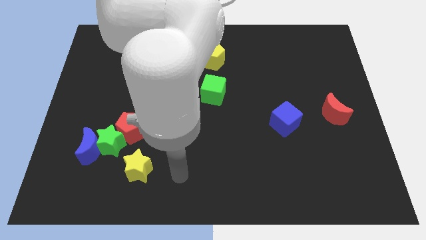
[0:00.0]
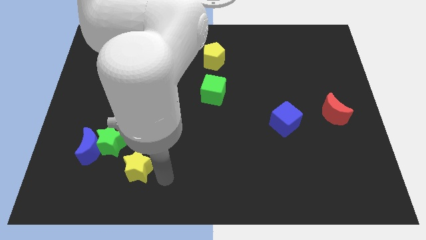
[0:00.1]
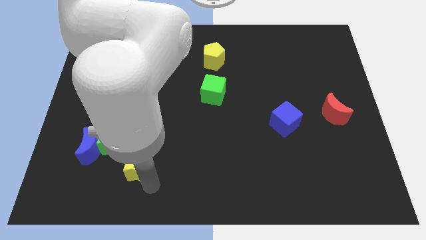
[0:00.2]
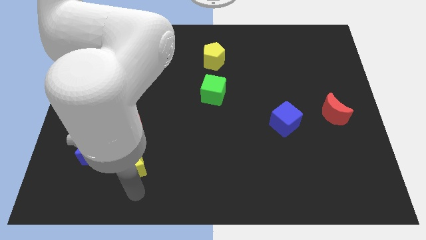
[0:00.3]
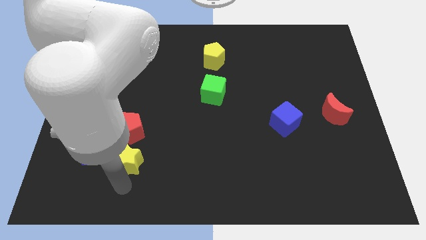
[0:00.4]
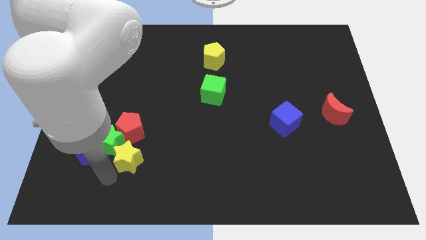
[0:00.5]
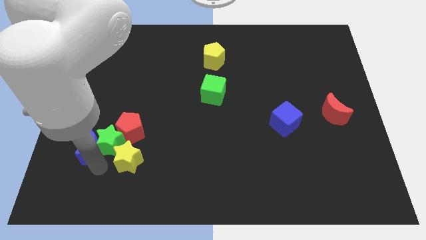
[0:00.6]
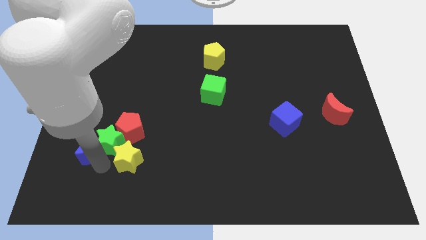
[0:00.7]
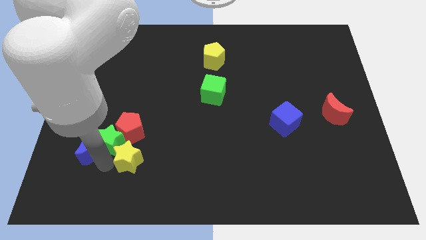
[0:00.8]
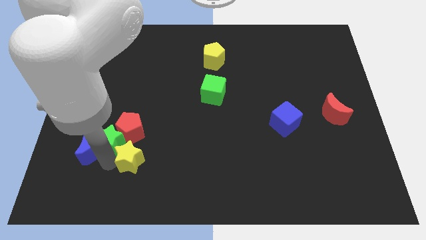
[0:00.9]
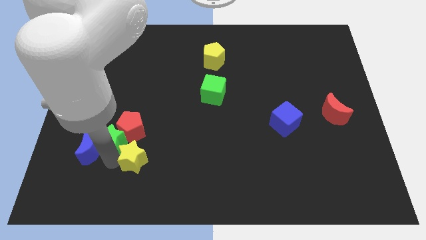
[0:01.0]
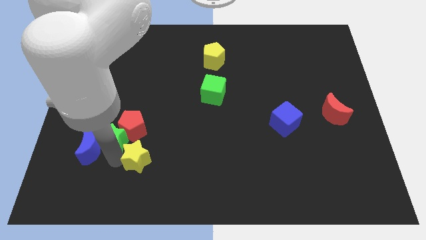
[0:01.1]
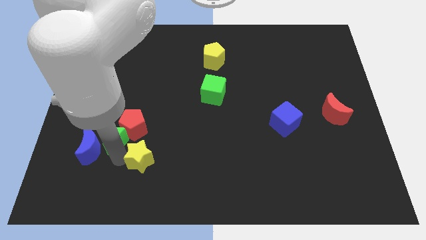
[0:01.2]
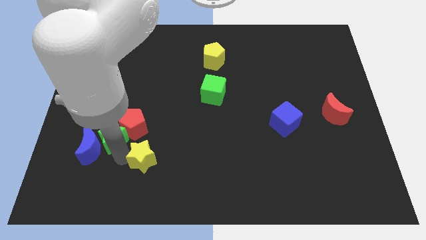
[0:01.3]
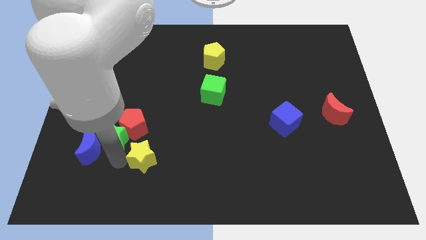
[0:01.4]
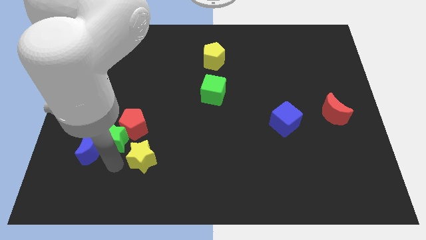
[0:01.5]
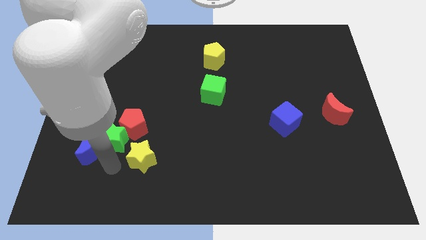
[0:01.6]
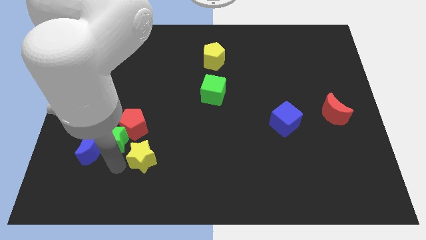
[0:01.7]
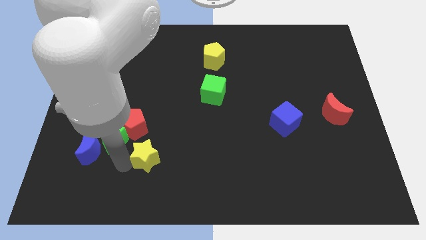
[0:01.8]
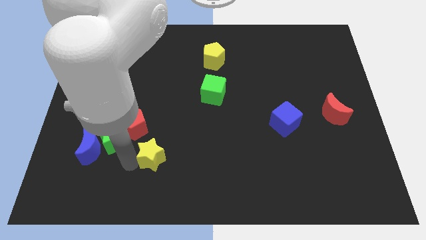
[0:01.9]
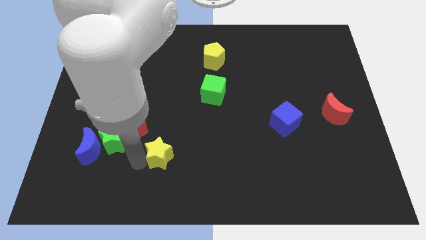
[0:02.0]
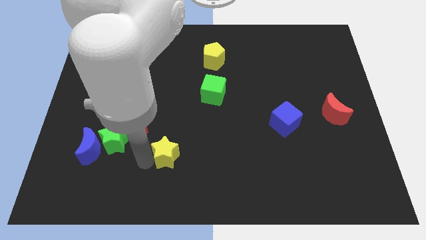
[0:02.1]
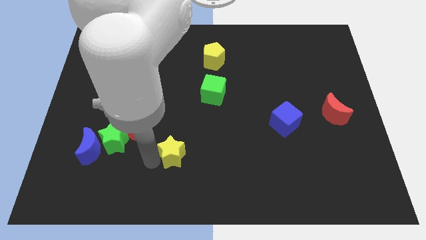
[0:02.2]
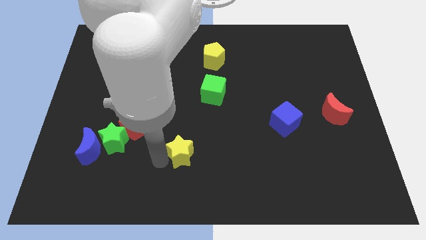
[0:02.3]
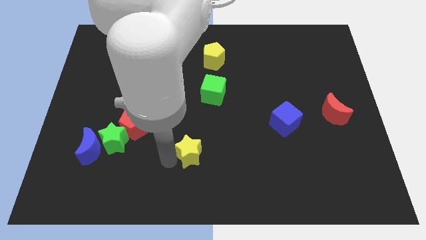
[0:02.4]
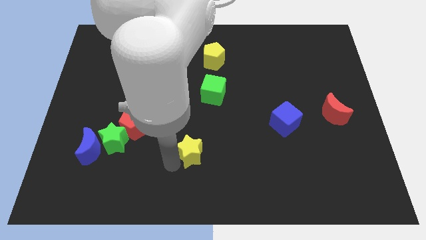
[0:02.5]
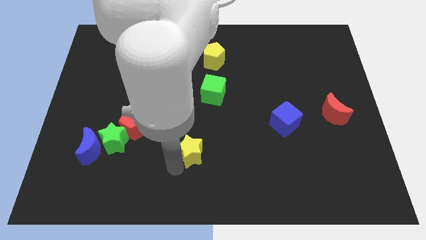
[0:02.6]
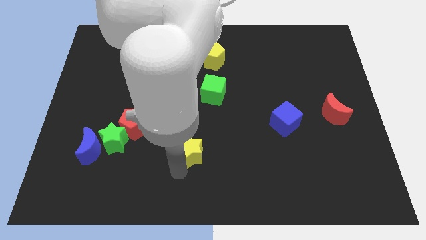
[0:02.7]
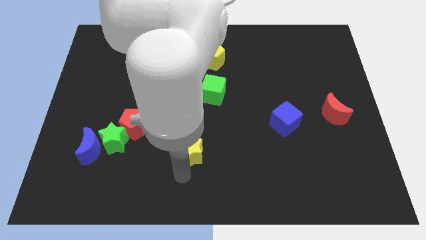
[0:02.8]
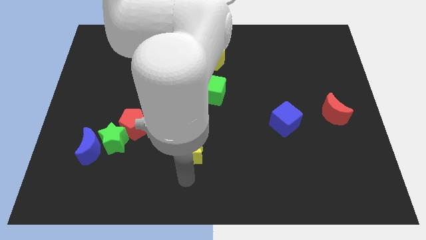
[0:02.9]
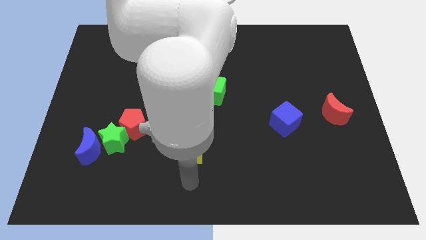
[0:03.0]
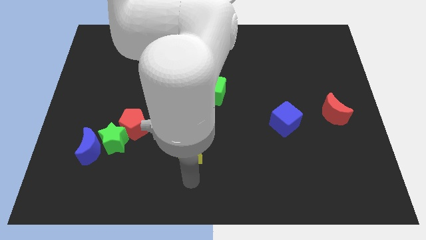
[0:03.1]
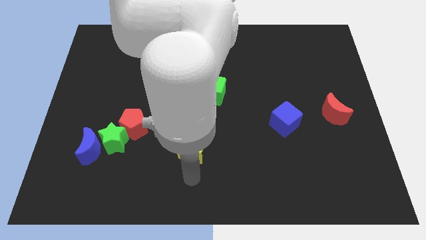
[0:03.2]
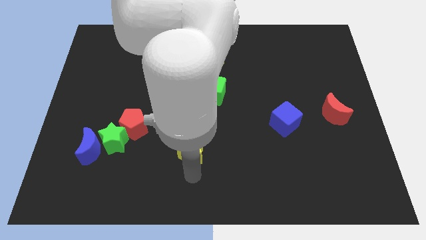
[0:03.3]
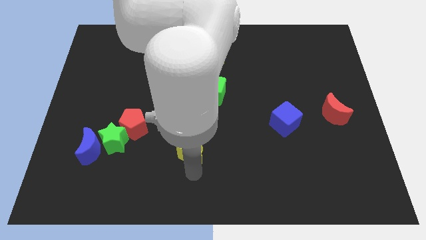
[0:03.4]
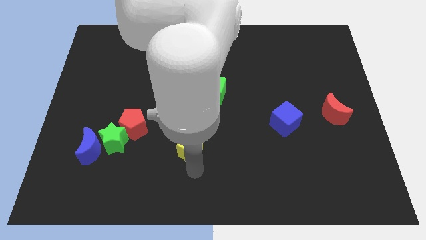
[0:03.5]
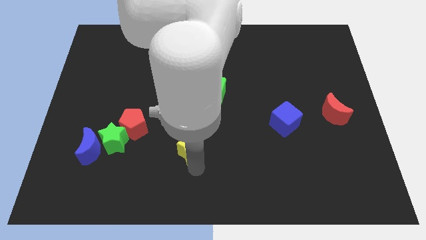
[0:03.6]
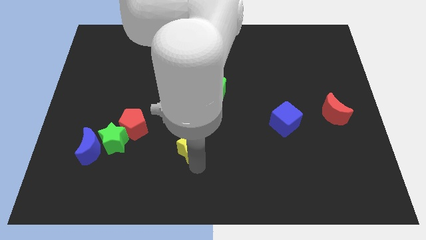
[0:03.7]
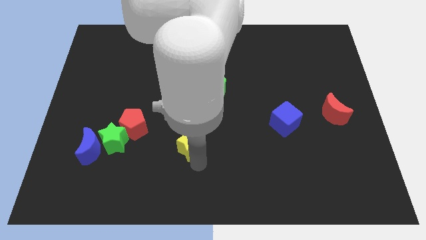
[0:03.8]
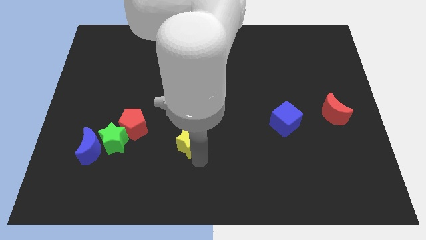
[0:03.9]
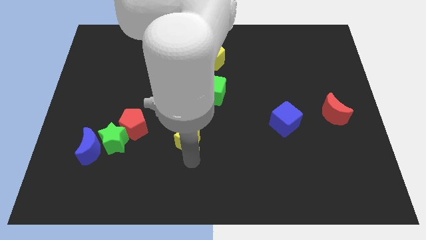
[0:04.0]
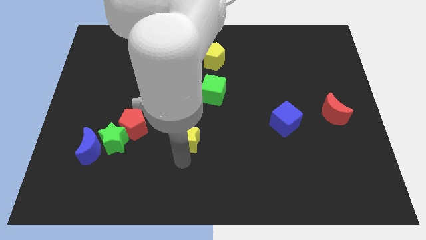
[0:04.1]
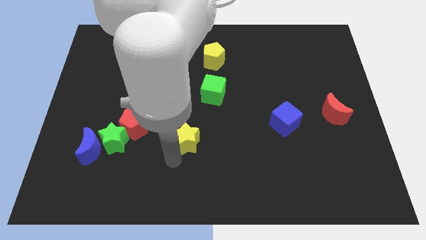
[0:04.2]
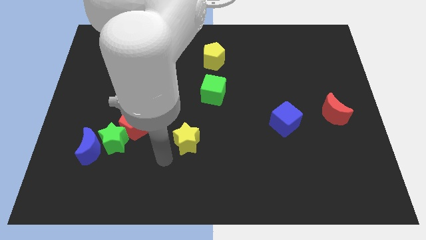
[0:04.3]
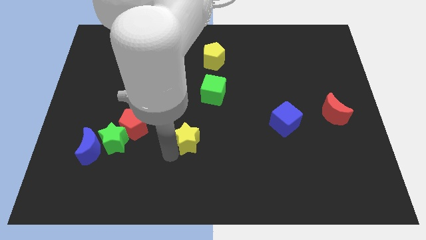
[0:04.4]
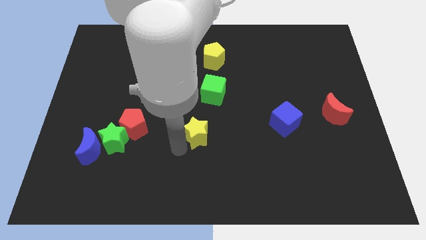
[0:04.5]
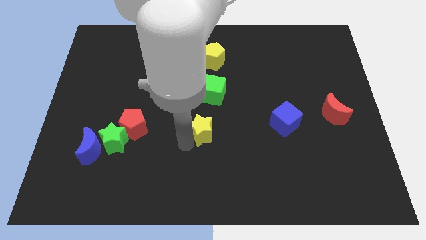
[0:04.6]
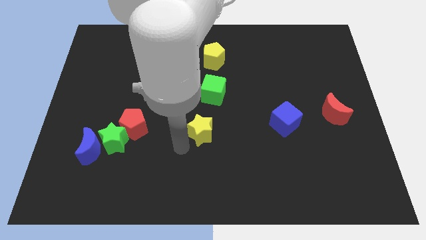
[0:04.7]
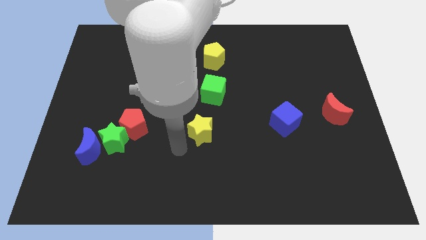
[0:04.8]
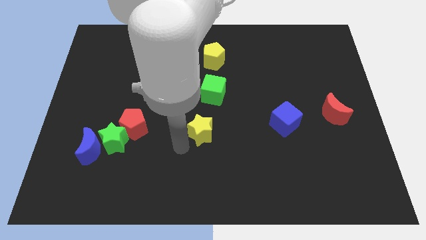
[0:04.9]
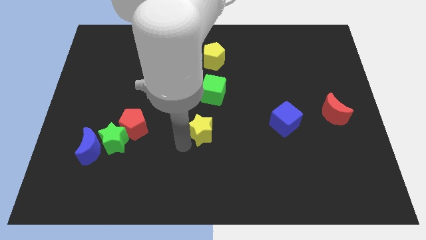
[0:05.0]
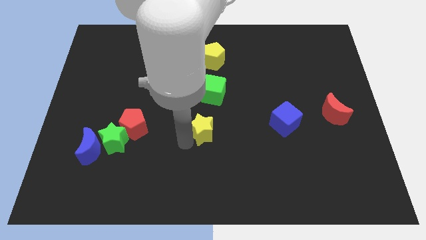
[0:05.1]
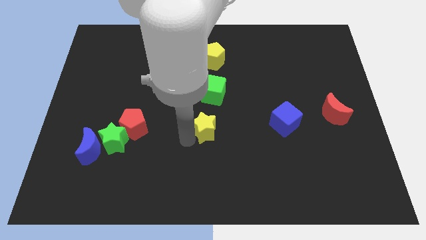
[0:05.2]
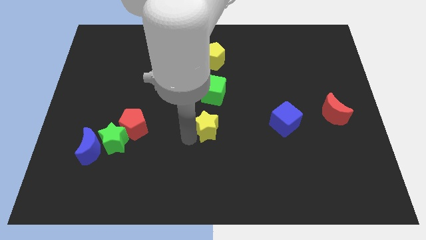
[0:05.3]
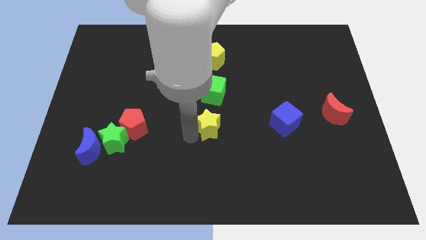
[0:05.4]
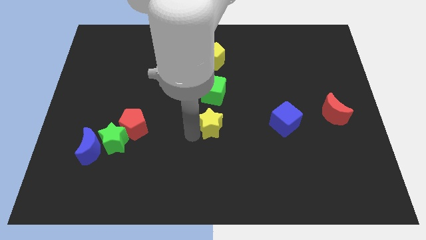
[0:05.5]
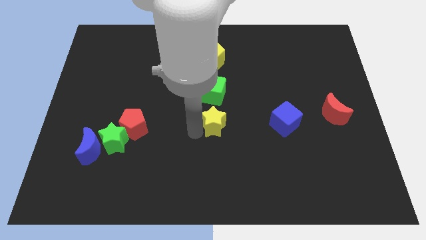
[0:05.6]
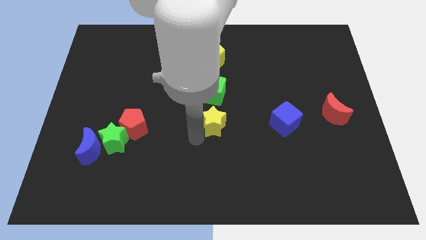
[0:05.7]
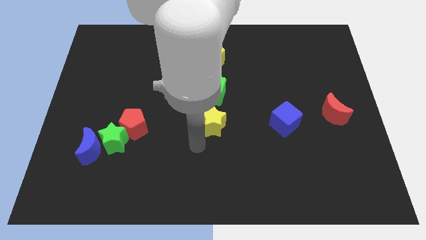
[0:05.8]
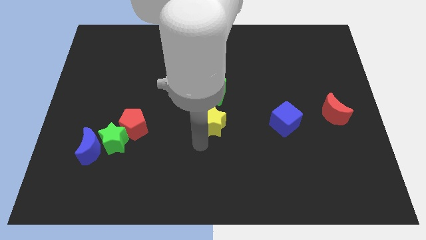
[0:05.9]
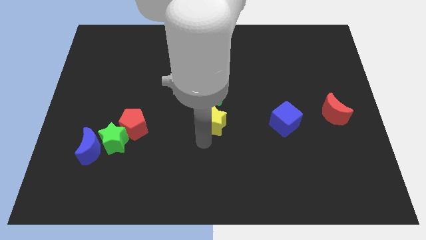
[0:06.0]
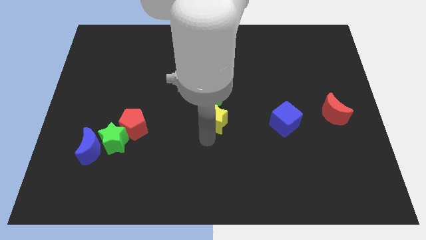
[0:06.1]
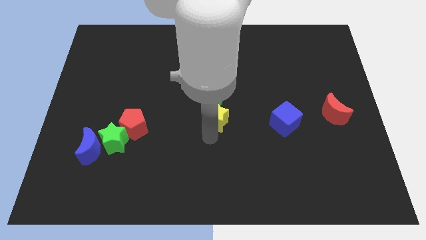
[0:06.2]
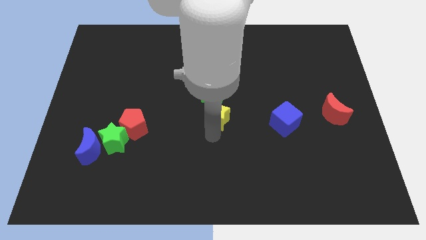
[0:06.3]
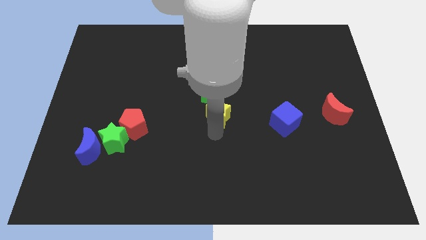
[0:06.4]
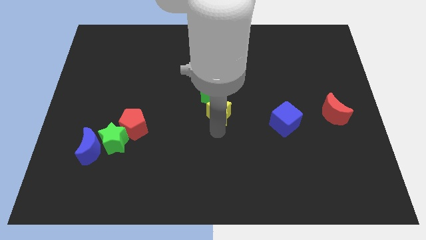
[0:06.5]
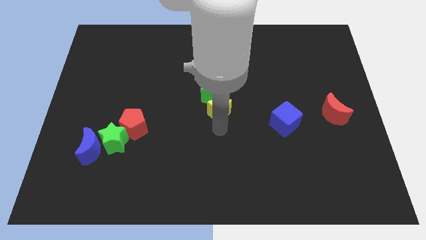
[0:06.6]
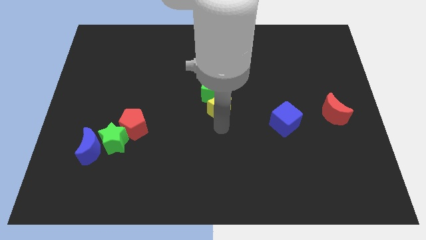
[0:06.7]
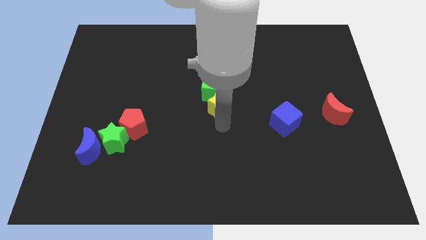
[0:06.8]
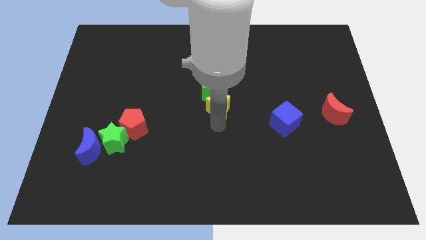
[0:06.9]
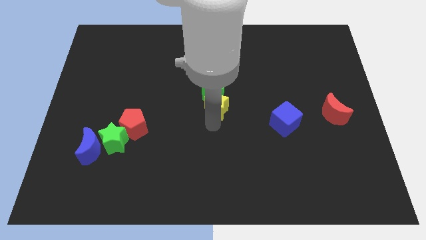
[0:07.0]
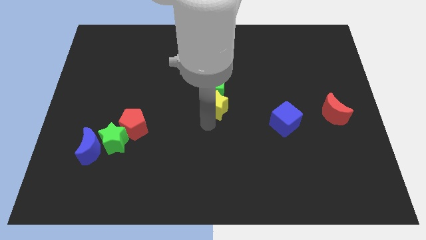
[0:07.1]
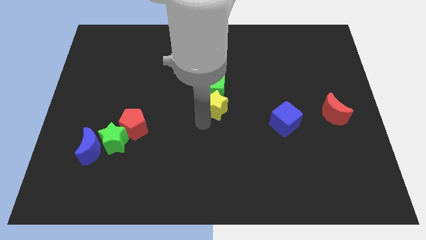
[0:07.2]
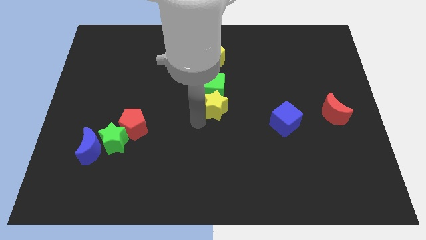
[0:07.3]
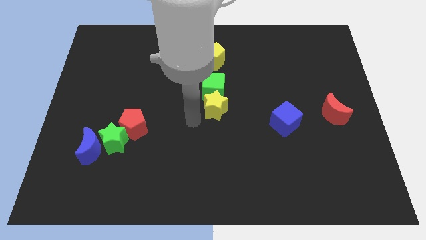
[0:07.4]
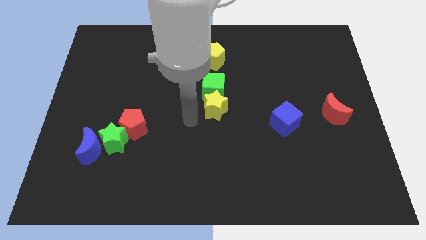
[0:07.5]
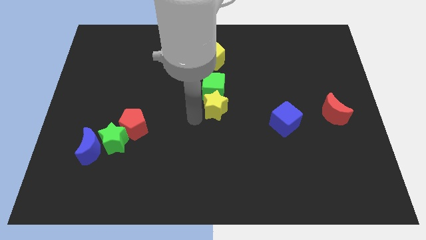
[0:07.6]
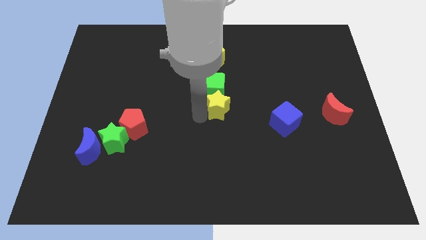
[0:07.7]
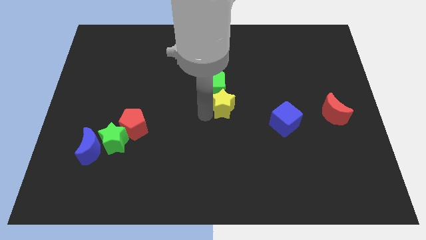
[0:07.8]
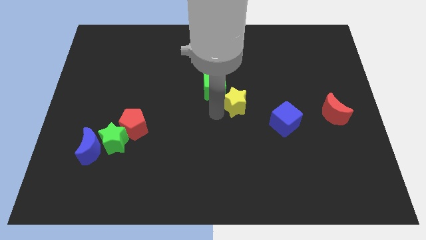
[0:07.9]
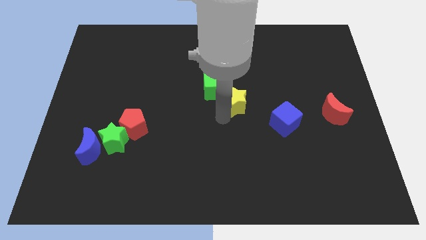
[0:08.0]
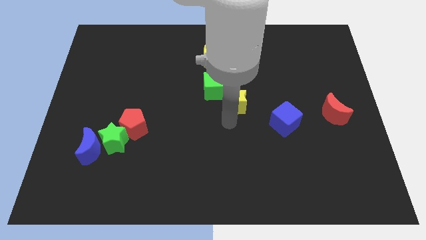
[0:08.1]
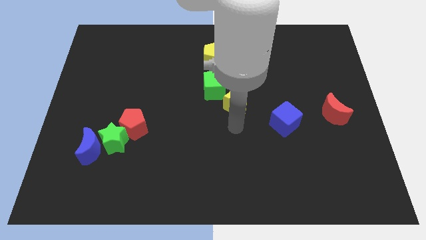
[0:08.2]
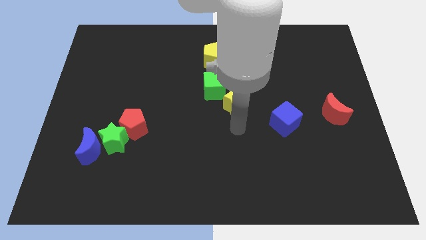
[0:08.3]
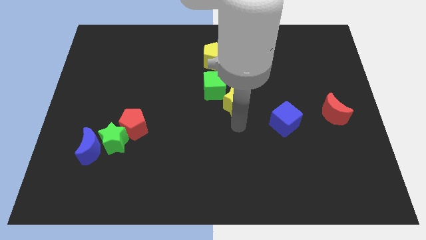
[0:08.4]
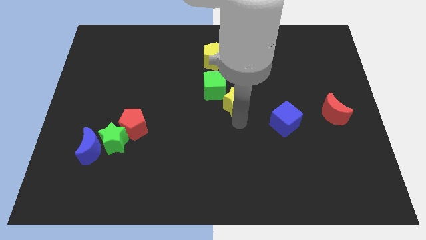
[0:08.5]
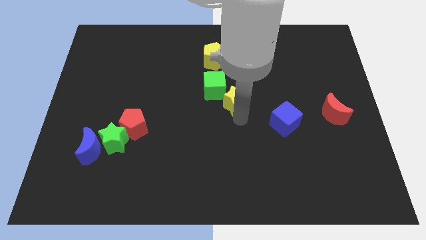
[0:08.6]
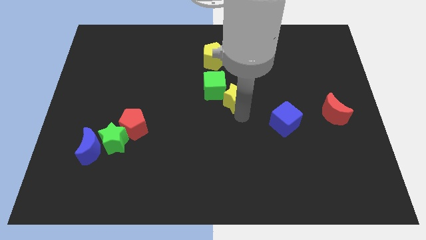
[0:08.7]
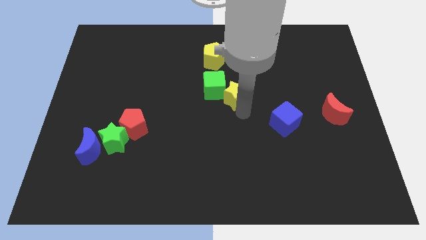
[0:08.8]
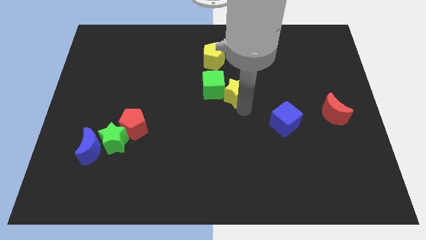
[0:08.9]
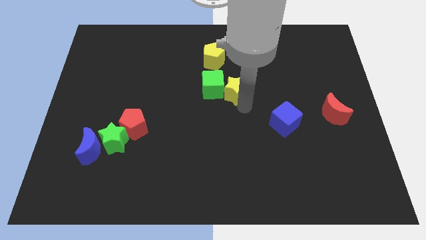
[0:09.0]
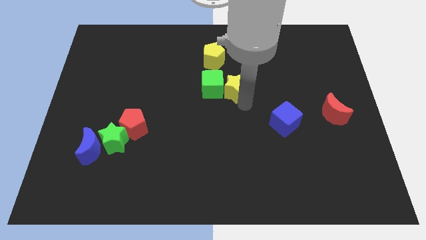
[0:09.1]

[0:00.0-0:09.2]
push the yellow star to the bottom right side of the yellow pentagon
